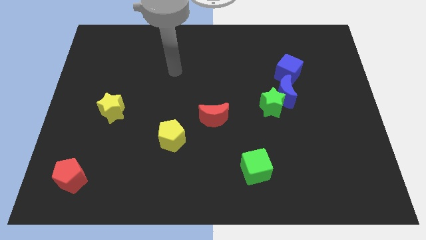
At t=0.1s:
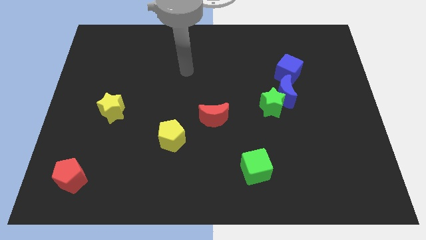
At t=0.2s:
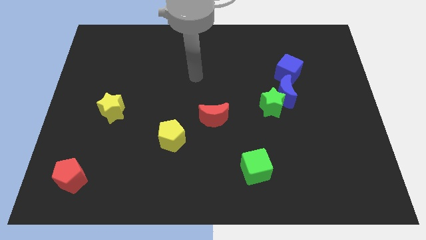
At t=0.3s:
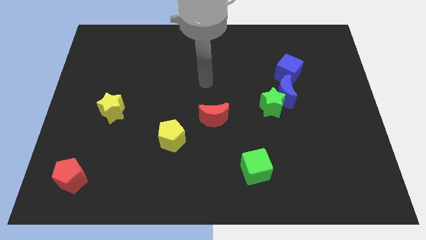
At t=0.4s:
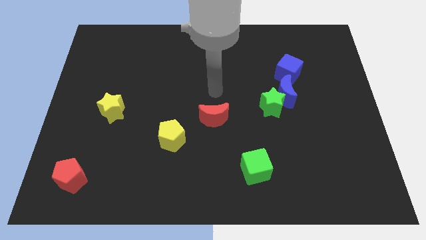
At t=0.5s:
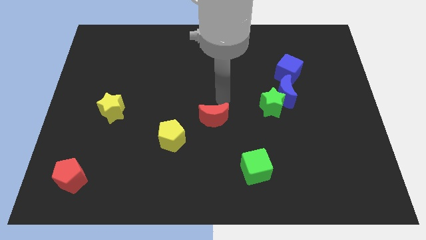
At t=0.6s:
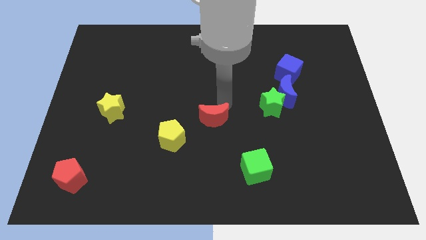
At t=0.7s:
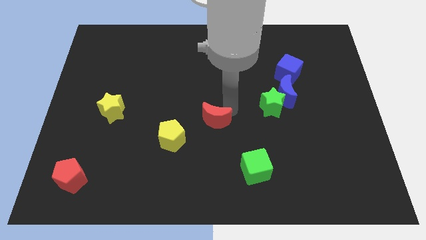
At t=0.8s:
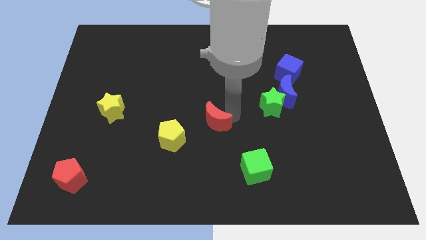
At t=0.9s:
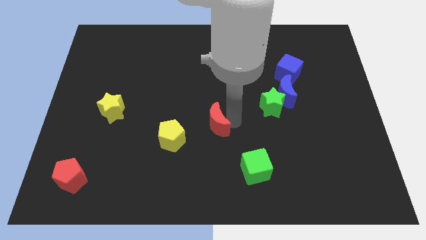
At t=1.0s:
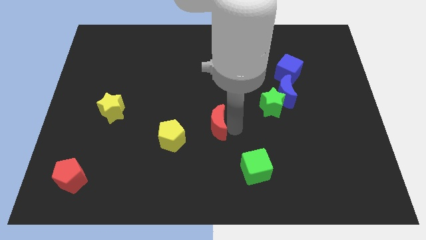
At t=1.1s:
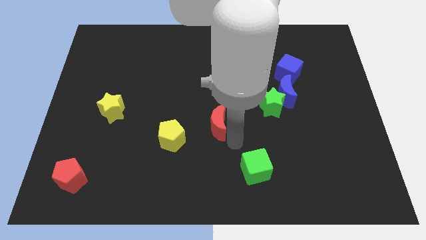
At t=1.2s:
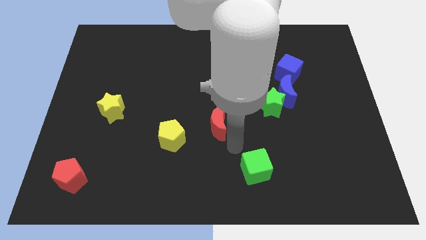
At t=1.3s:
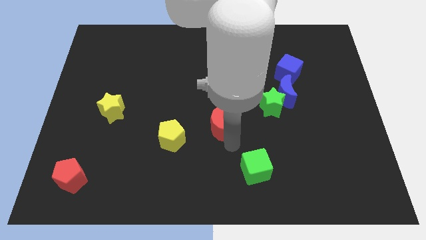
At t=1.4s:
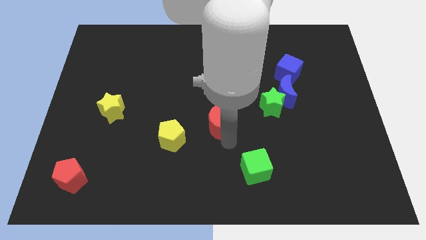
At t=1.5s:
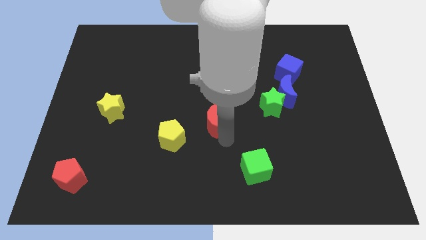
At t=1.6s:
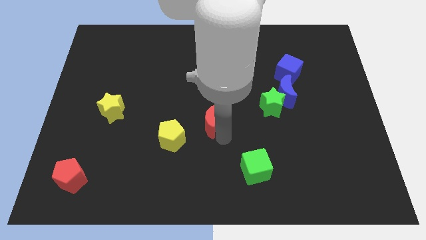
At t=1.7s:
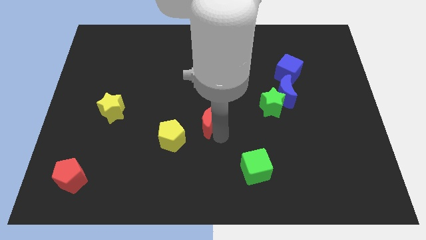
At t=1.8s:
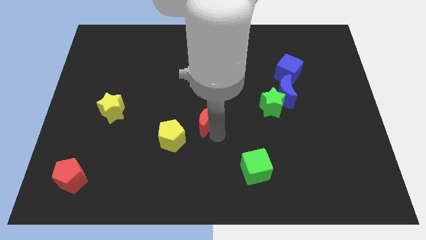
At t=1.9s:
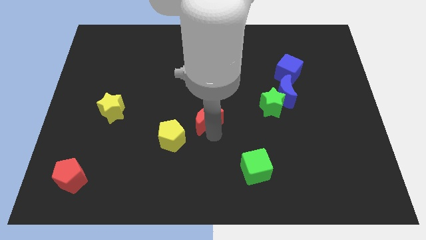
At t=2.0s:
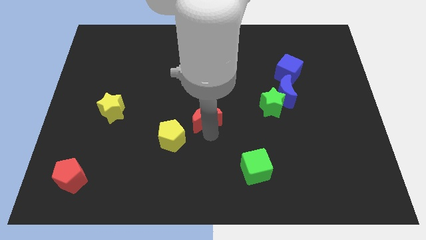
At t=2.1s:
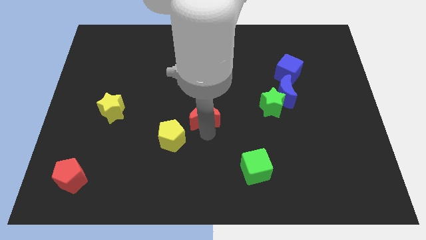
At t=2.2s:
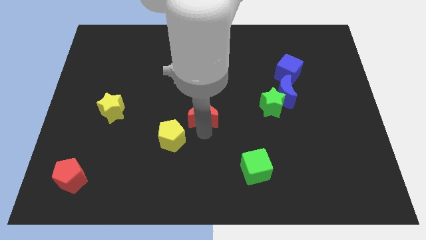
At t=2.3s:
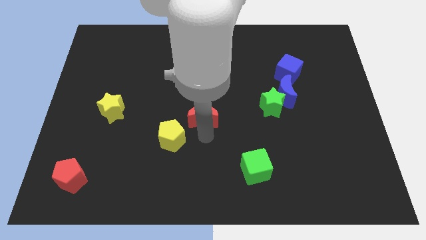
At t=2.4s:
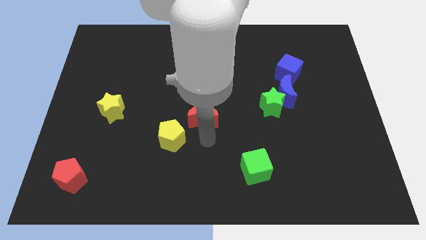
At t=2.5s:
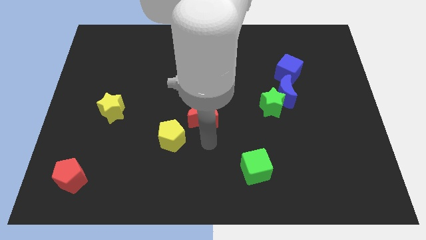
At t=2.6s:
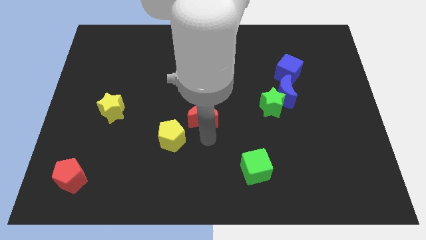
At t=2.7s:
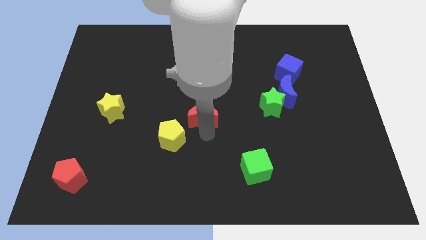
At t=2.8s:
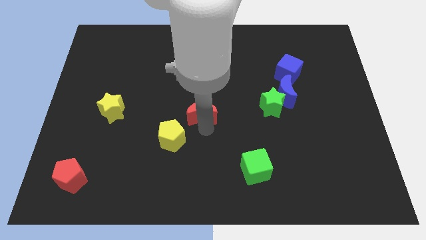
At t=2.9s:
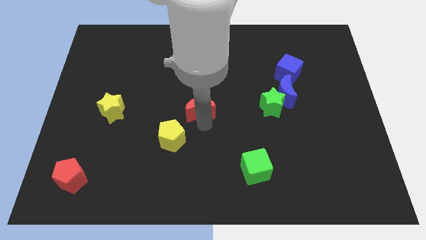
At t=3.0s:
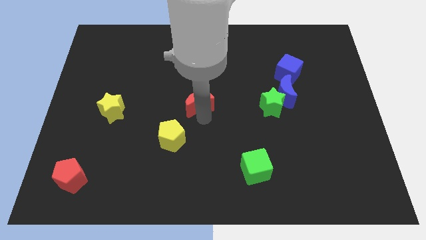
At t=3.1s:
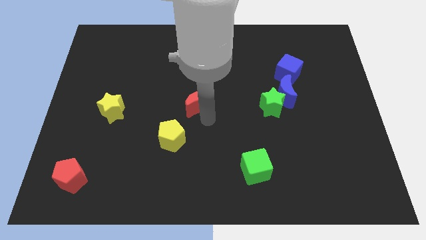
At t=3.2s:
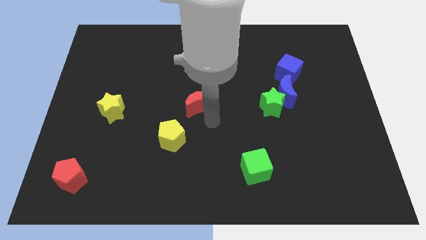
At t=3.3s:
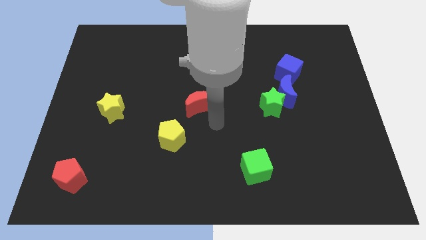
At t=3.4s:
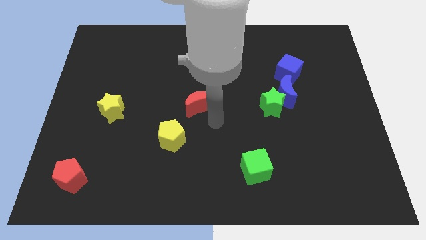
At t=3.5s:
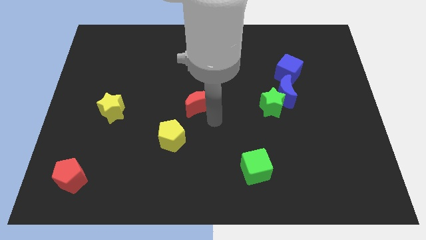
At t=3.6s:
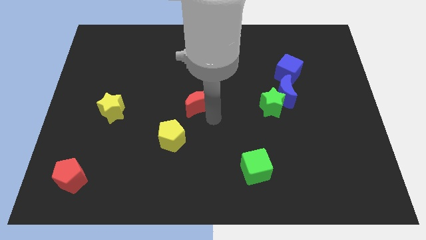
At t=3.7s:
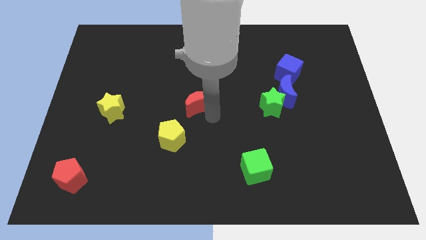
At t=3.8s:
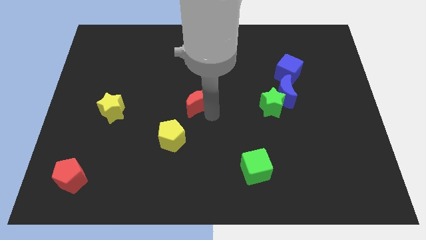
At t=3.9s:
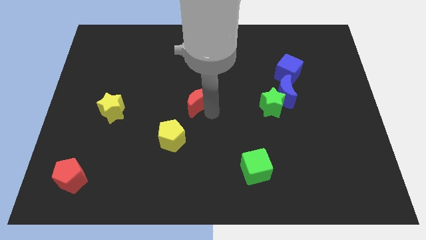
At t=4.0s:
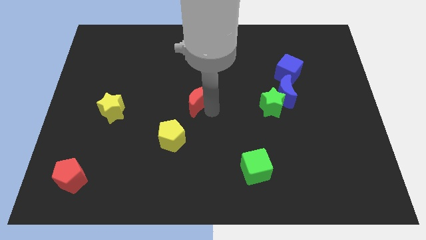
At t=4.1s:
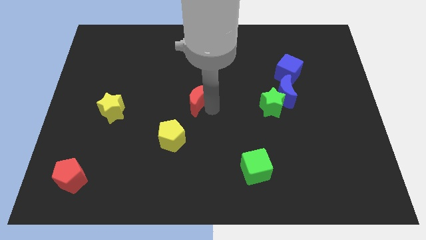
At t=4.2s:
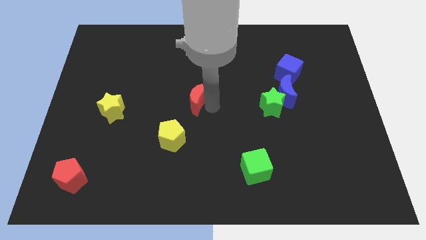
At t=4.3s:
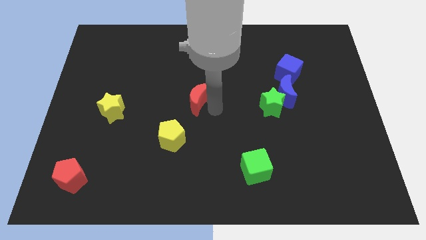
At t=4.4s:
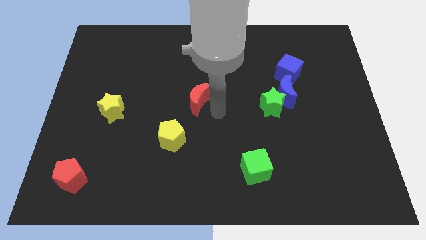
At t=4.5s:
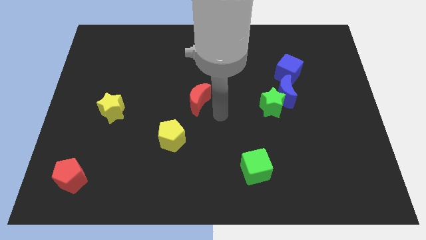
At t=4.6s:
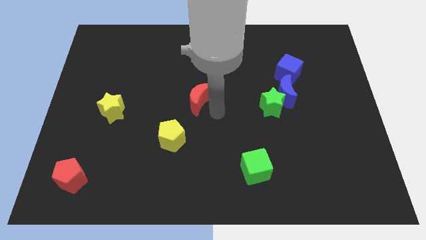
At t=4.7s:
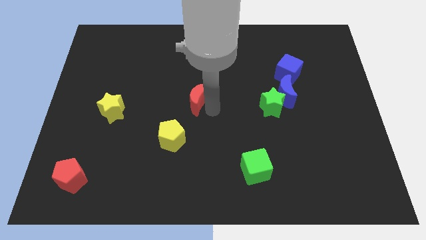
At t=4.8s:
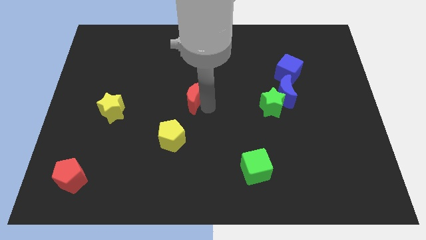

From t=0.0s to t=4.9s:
slide the red moon a little bit diagonally up and to the left

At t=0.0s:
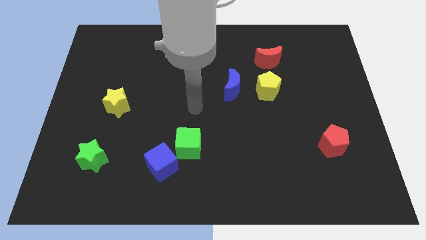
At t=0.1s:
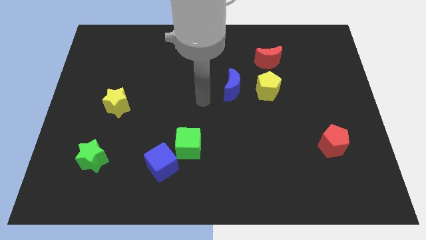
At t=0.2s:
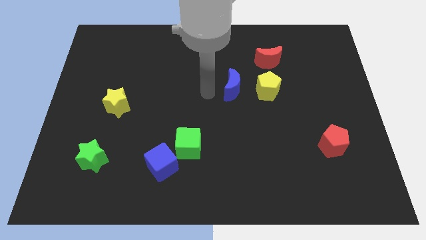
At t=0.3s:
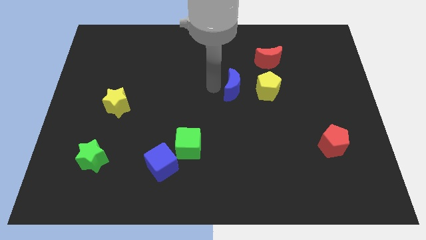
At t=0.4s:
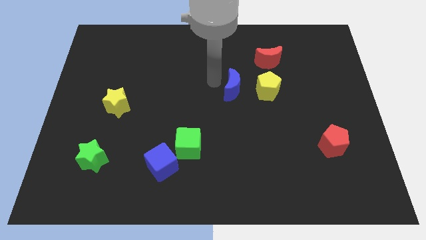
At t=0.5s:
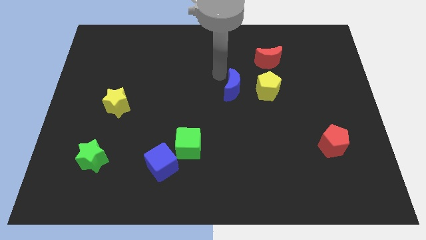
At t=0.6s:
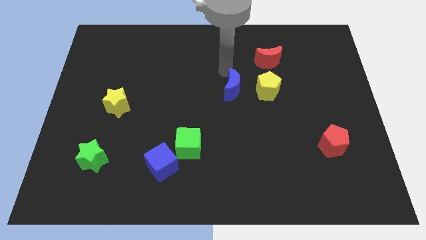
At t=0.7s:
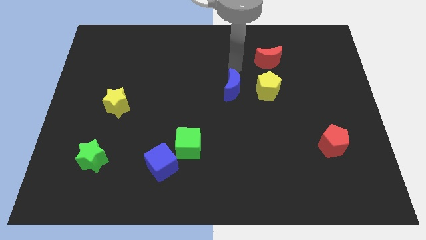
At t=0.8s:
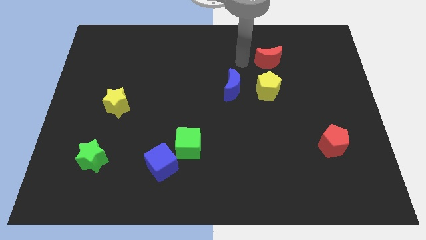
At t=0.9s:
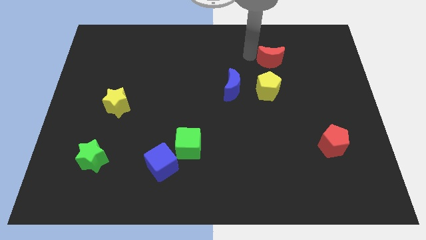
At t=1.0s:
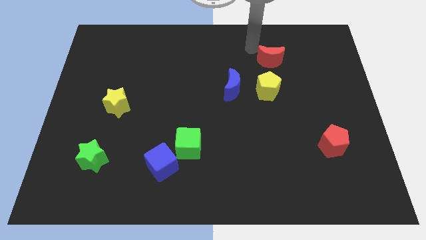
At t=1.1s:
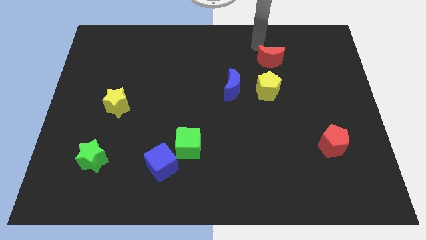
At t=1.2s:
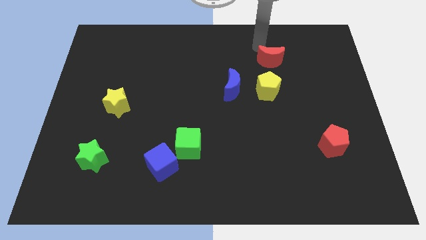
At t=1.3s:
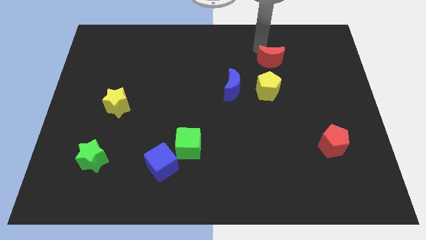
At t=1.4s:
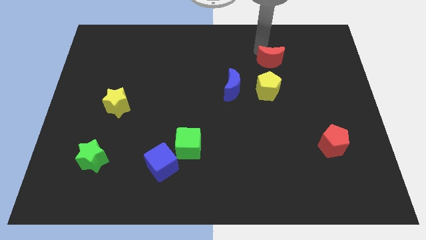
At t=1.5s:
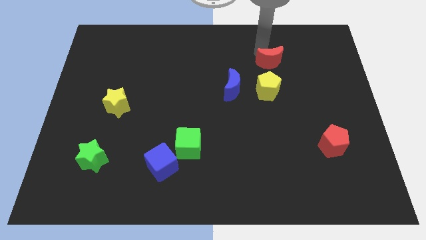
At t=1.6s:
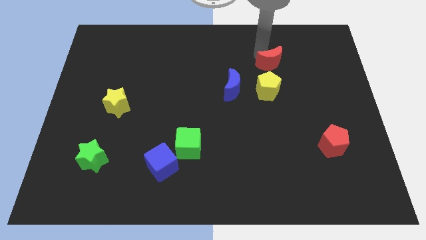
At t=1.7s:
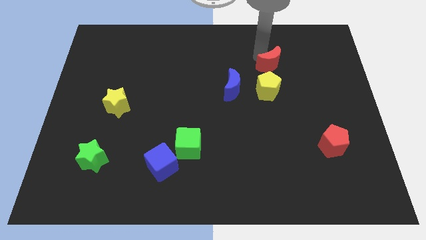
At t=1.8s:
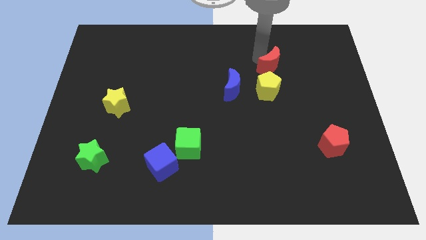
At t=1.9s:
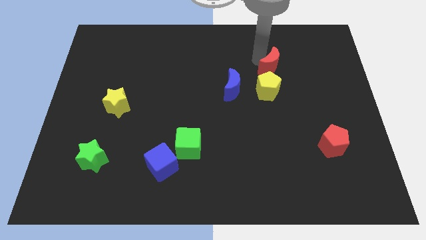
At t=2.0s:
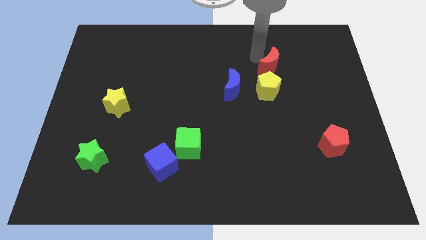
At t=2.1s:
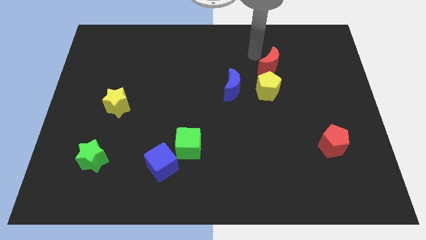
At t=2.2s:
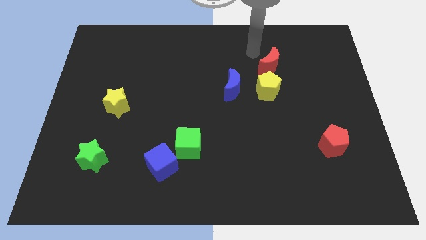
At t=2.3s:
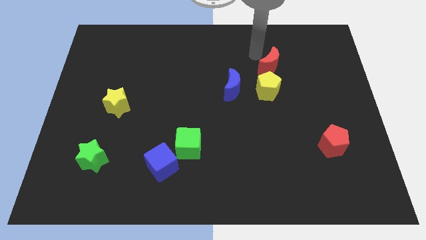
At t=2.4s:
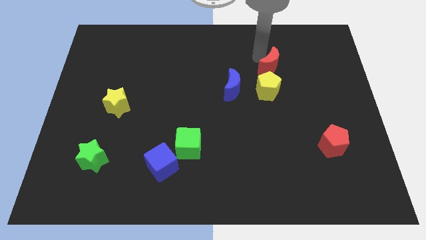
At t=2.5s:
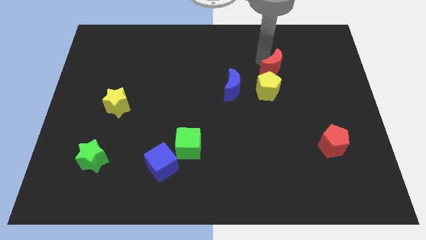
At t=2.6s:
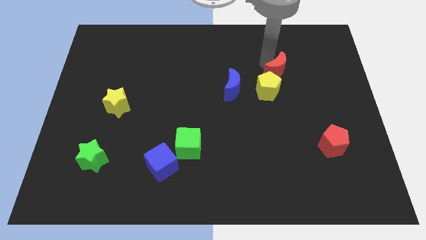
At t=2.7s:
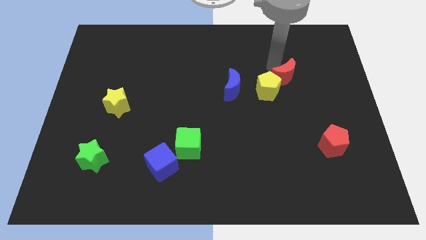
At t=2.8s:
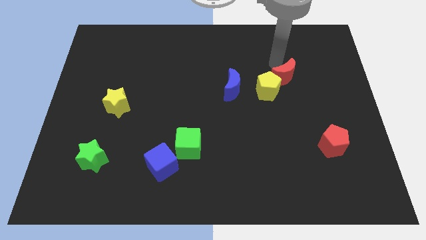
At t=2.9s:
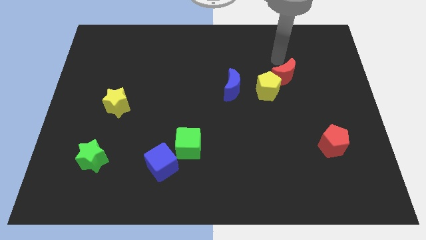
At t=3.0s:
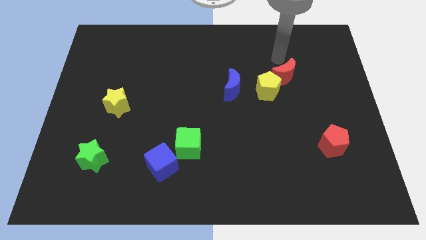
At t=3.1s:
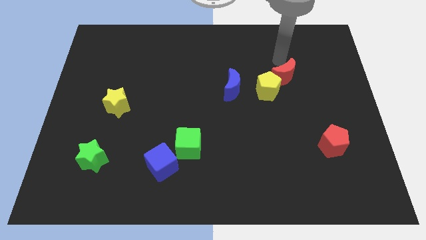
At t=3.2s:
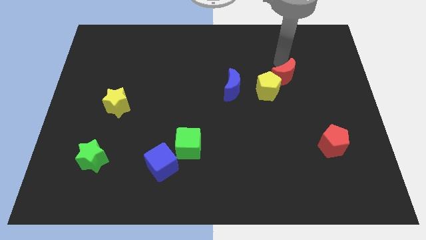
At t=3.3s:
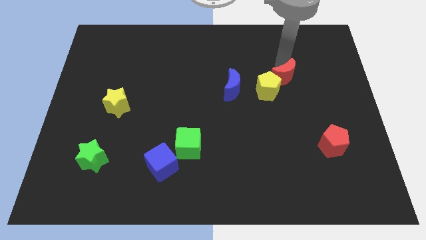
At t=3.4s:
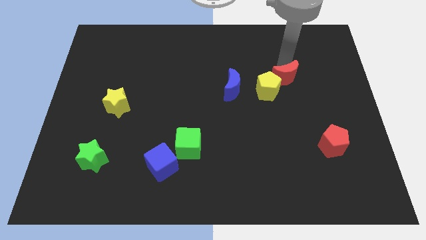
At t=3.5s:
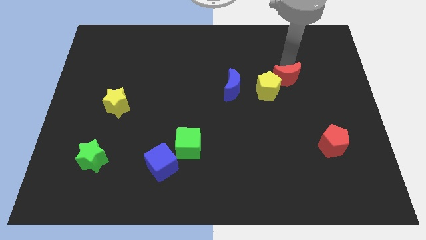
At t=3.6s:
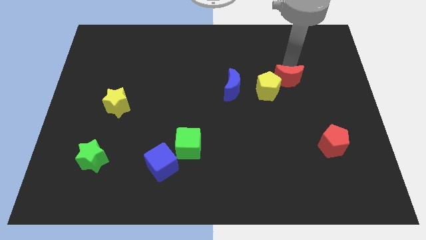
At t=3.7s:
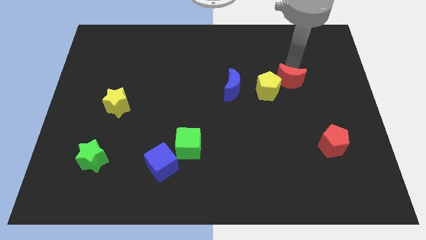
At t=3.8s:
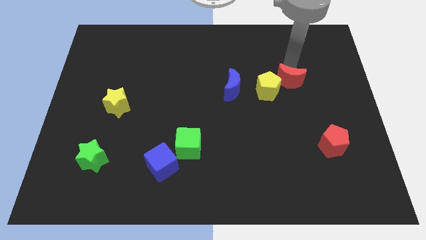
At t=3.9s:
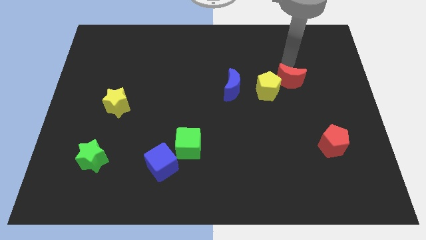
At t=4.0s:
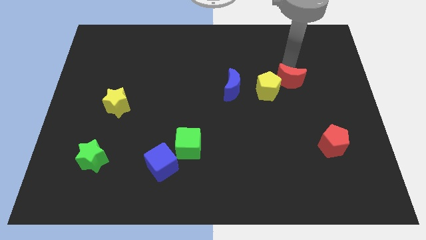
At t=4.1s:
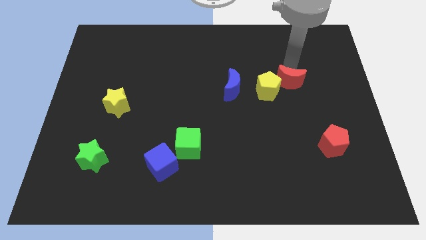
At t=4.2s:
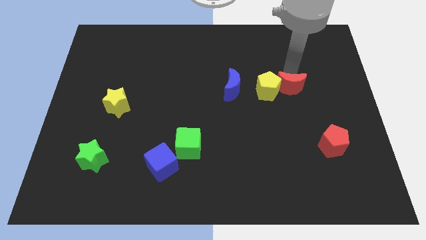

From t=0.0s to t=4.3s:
move the red moon downwards slightly
